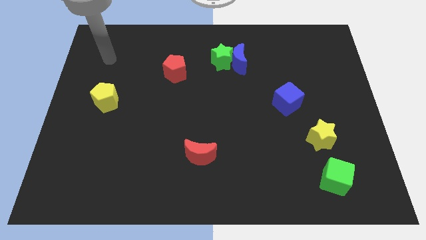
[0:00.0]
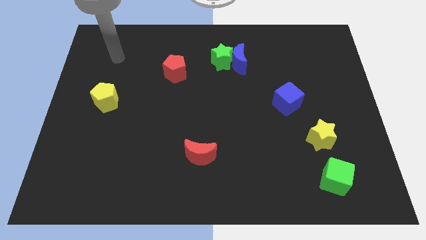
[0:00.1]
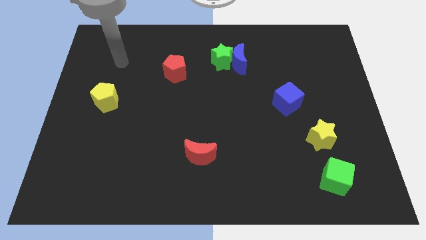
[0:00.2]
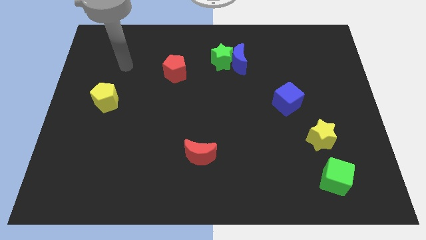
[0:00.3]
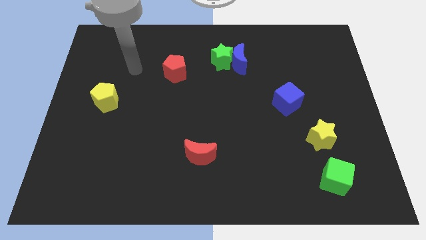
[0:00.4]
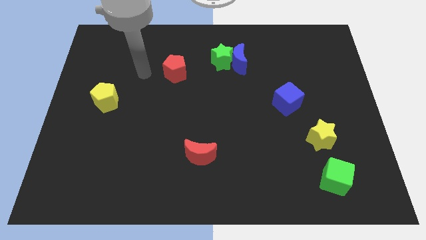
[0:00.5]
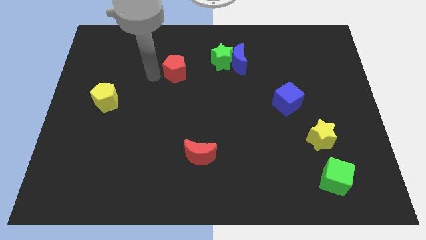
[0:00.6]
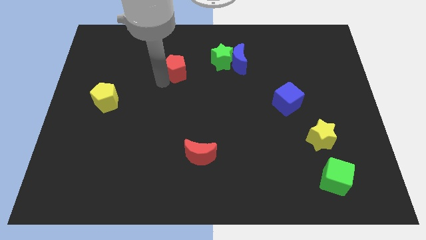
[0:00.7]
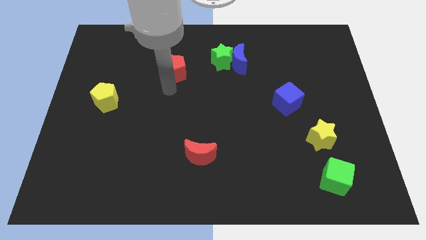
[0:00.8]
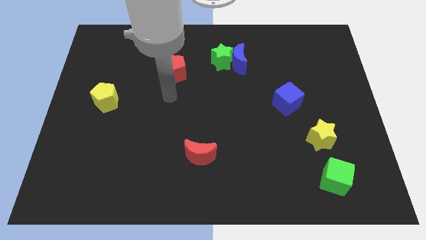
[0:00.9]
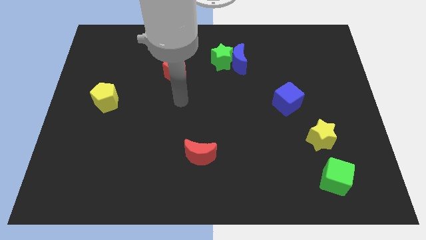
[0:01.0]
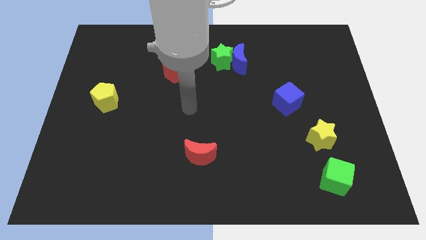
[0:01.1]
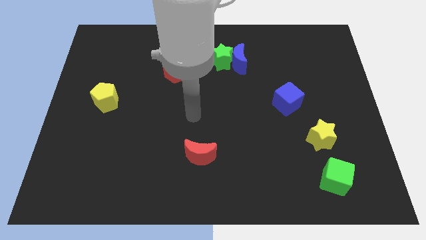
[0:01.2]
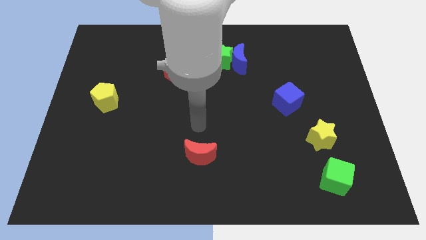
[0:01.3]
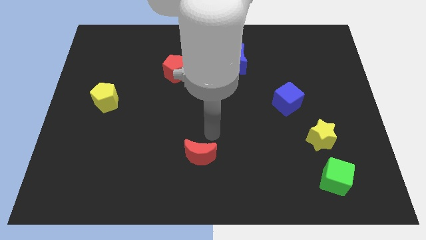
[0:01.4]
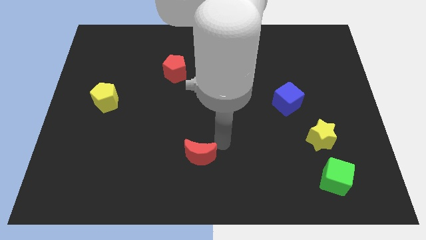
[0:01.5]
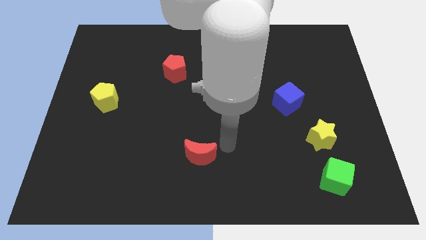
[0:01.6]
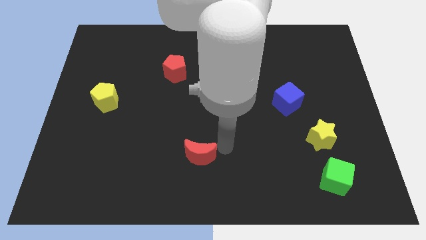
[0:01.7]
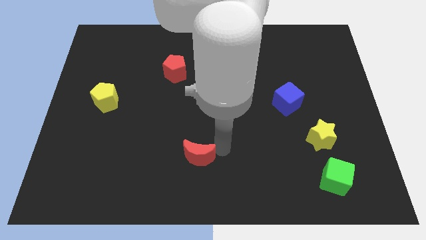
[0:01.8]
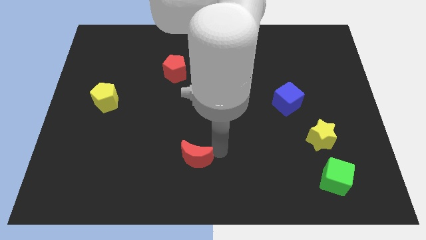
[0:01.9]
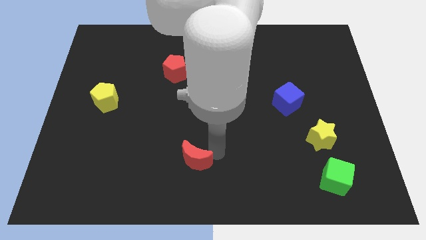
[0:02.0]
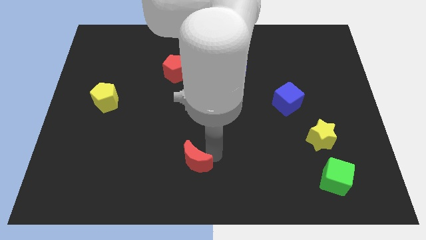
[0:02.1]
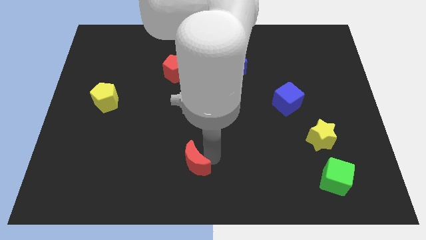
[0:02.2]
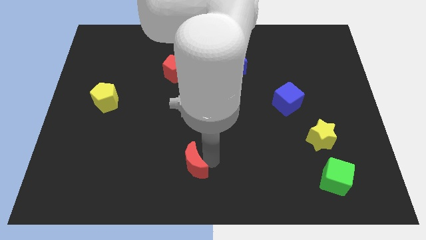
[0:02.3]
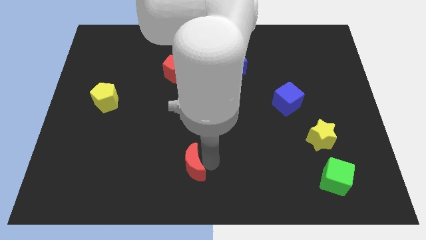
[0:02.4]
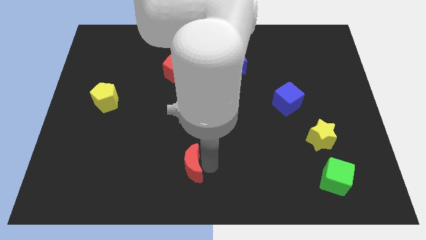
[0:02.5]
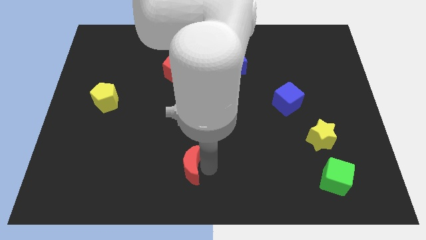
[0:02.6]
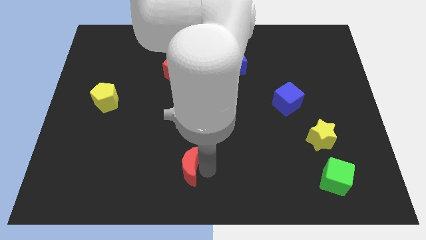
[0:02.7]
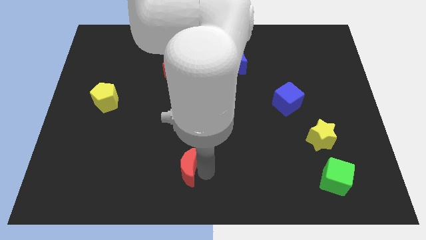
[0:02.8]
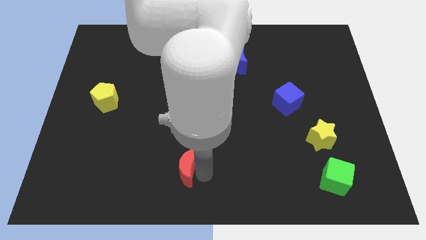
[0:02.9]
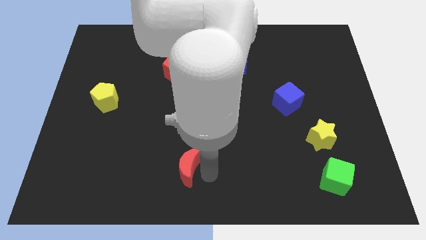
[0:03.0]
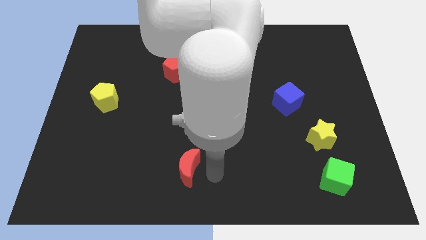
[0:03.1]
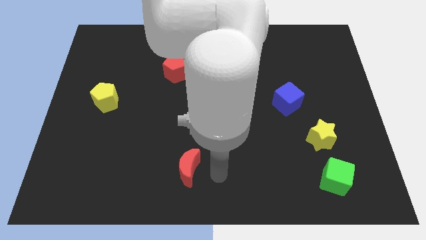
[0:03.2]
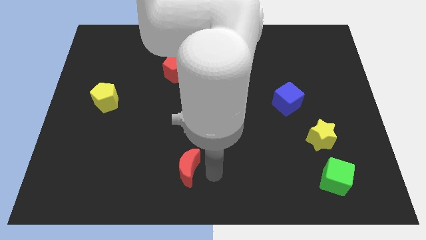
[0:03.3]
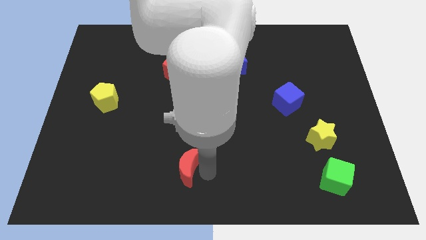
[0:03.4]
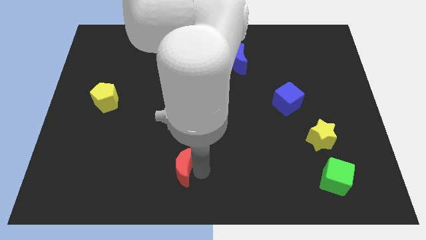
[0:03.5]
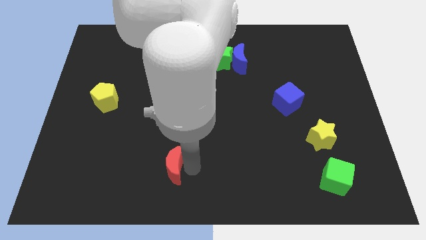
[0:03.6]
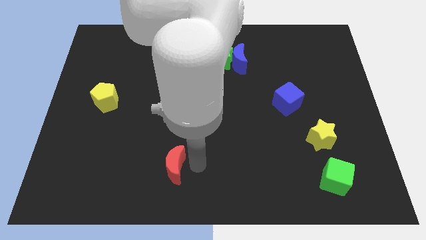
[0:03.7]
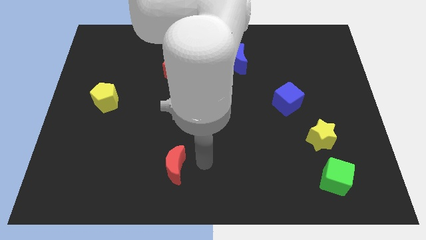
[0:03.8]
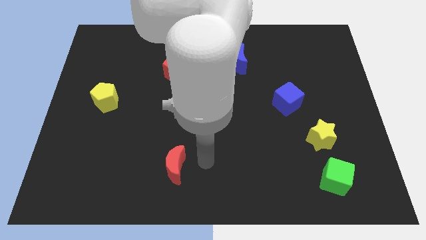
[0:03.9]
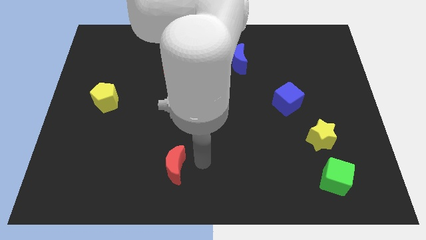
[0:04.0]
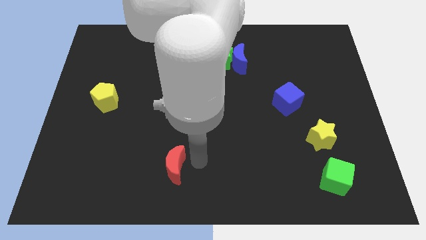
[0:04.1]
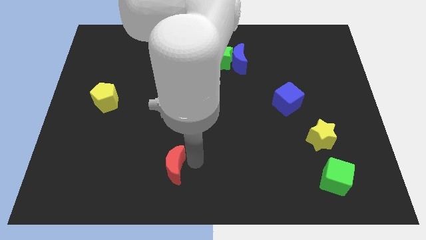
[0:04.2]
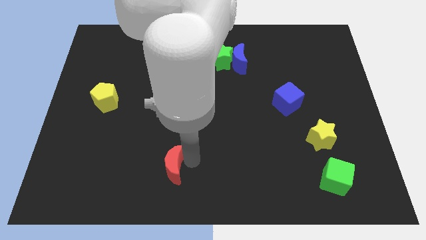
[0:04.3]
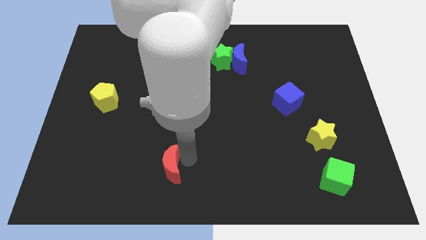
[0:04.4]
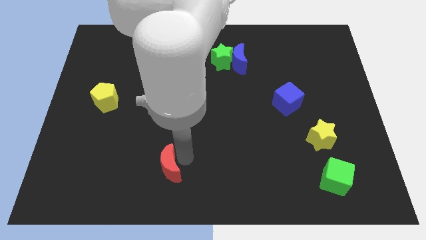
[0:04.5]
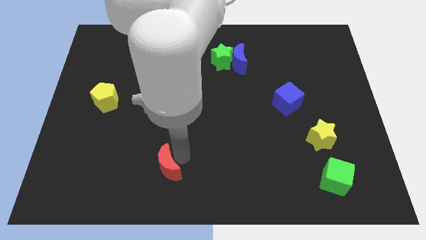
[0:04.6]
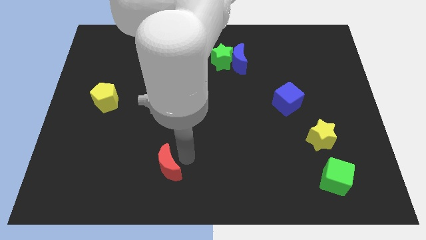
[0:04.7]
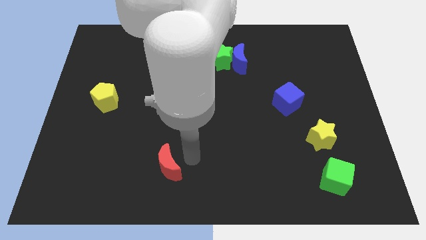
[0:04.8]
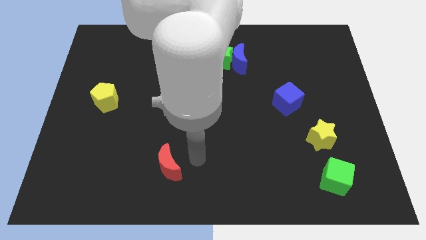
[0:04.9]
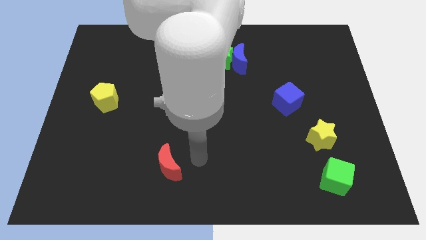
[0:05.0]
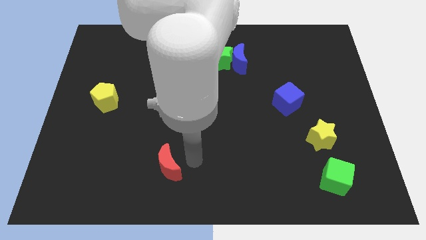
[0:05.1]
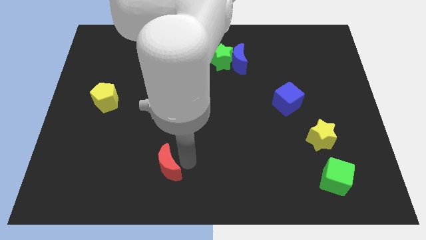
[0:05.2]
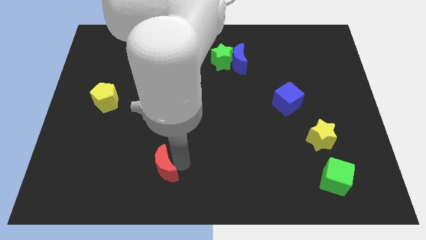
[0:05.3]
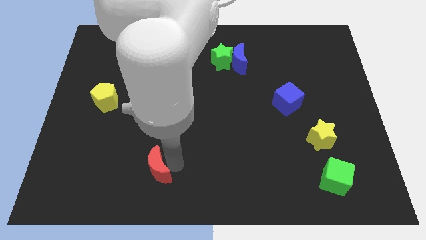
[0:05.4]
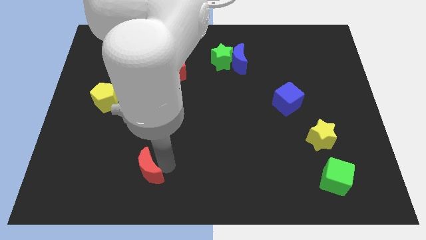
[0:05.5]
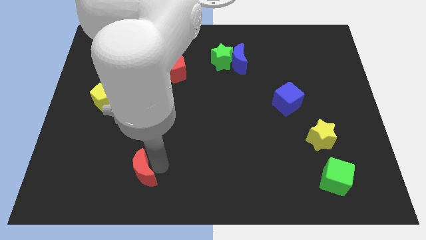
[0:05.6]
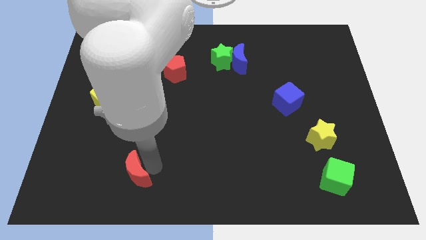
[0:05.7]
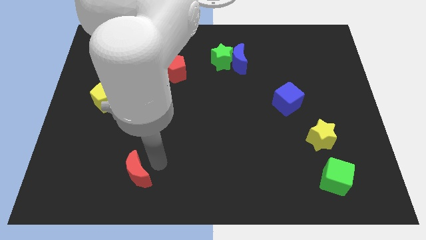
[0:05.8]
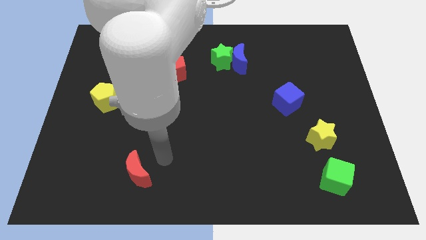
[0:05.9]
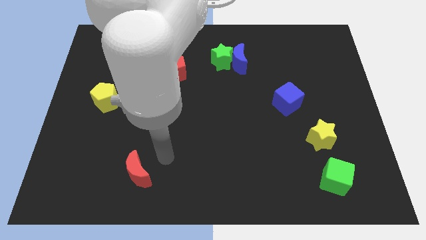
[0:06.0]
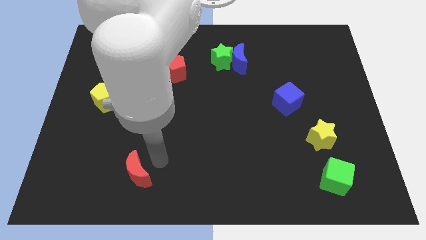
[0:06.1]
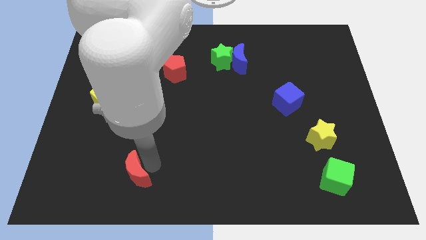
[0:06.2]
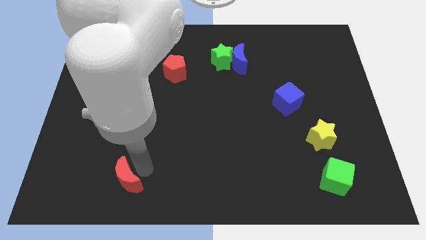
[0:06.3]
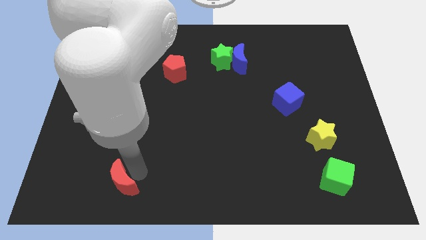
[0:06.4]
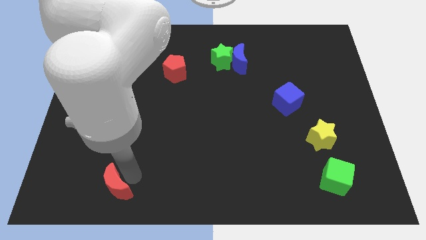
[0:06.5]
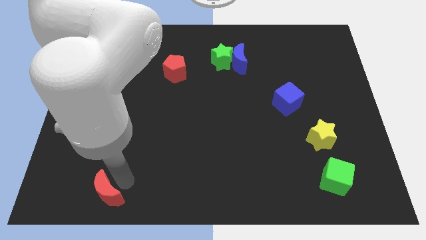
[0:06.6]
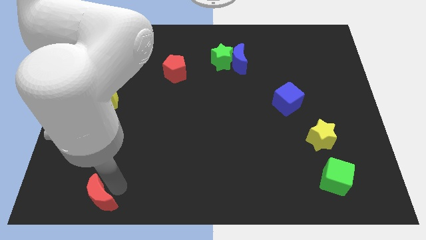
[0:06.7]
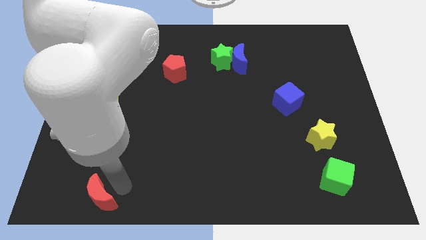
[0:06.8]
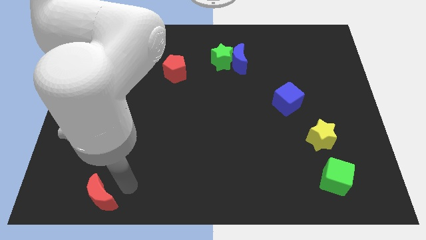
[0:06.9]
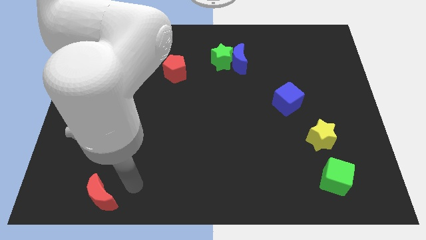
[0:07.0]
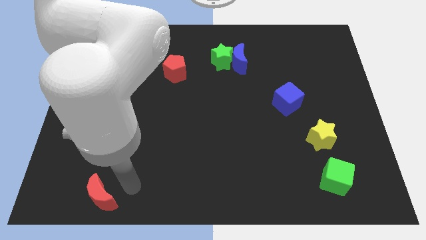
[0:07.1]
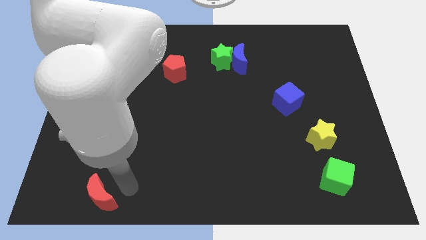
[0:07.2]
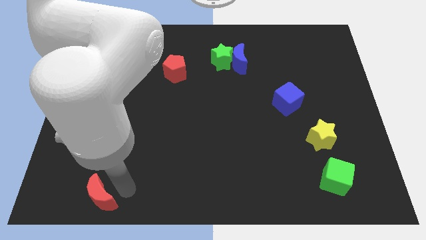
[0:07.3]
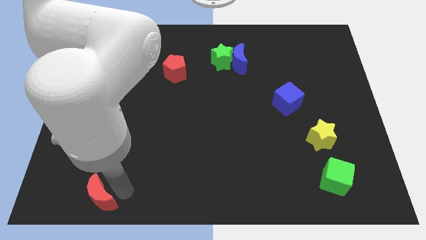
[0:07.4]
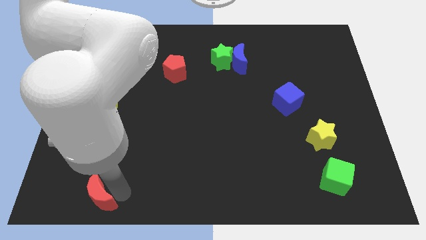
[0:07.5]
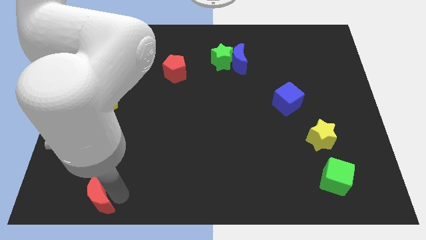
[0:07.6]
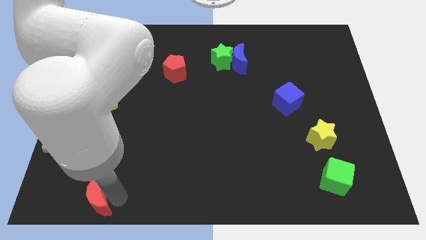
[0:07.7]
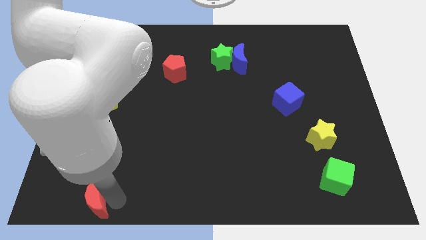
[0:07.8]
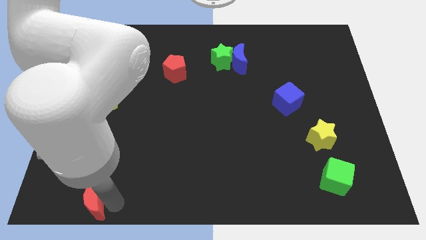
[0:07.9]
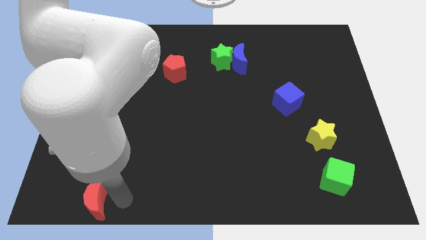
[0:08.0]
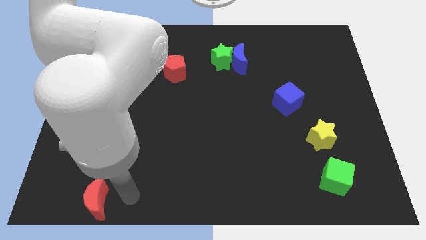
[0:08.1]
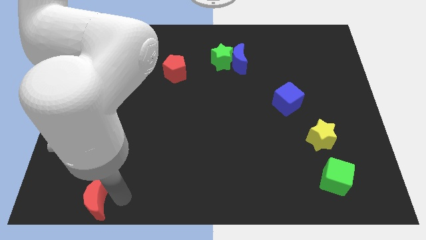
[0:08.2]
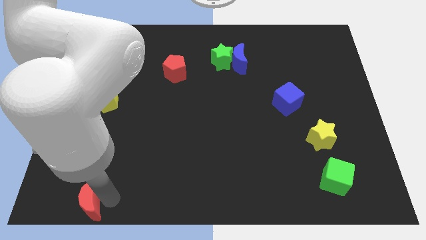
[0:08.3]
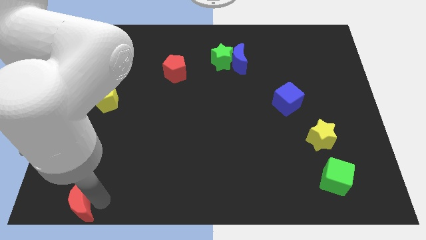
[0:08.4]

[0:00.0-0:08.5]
put the red moon to the bottom left
